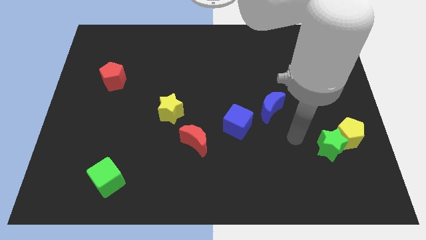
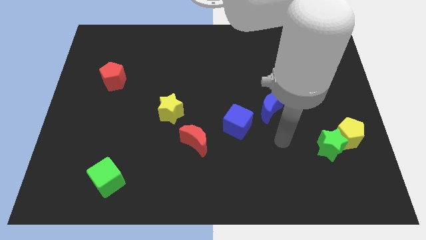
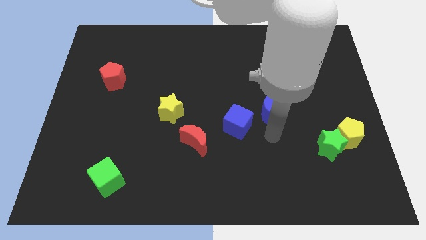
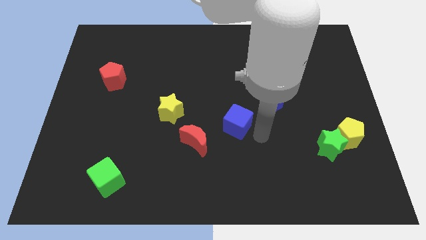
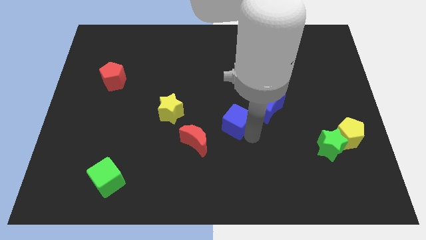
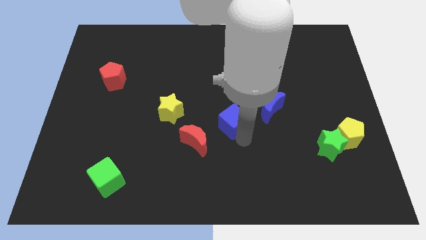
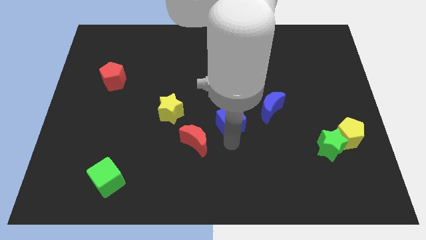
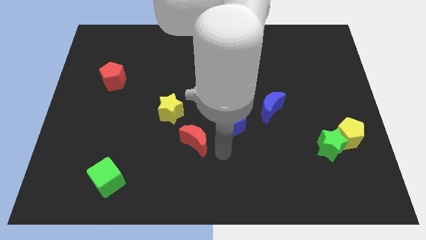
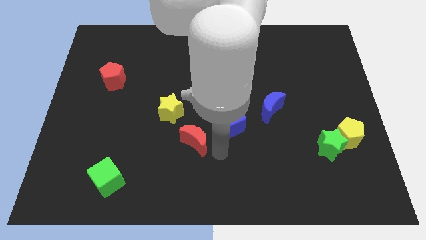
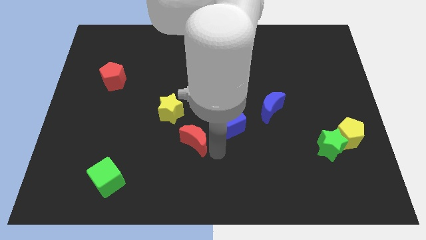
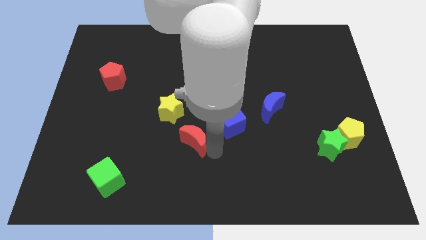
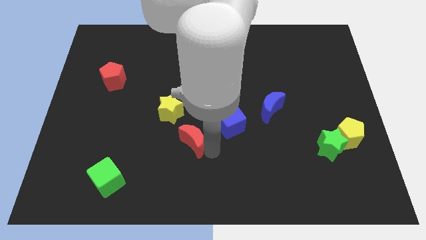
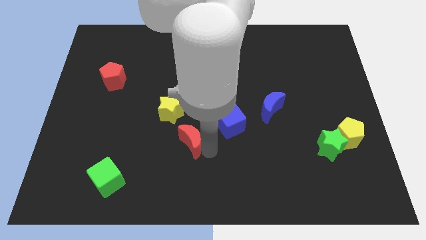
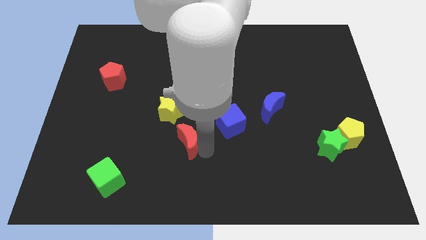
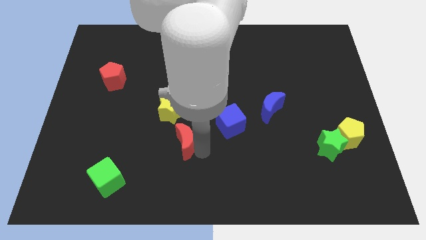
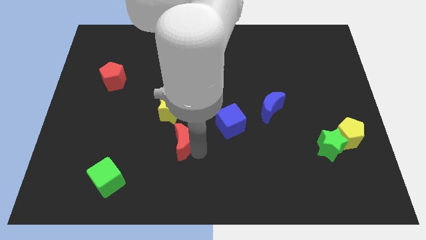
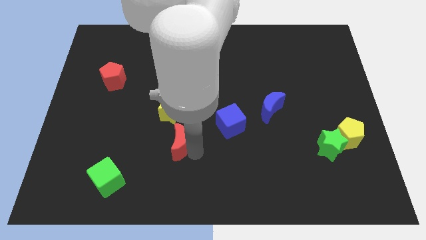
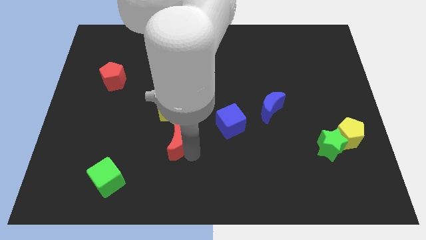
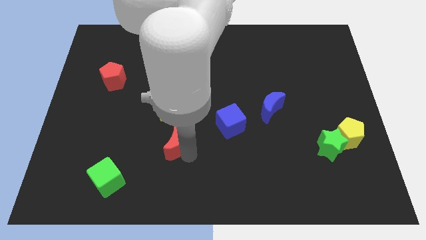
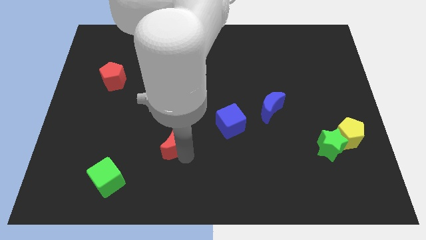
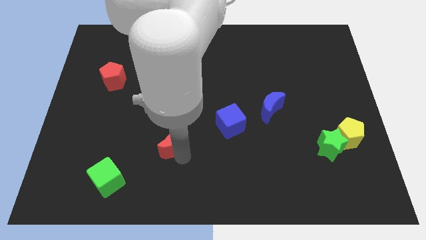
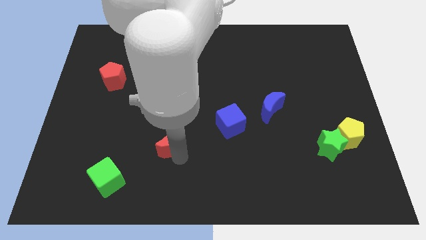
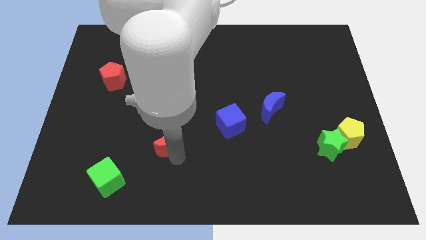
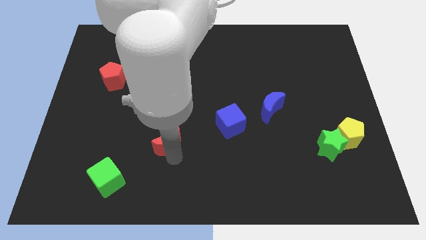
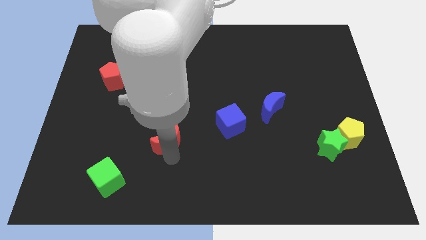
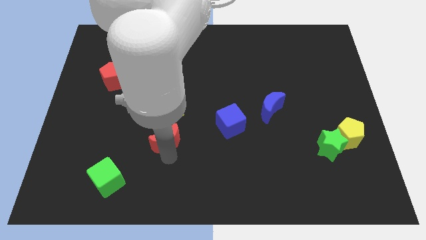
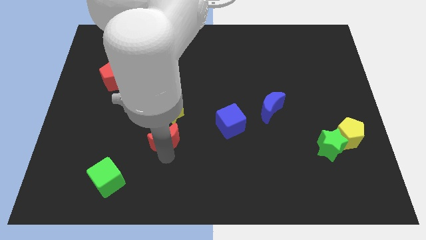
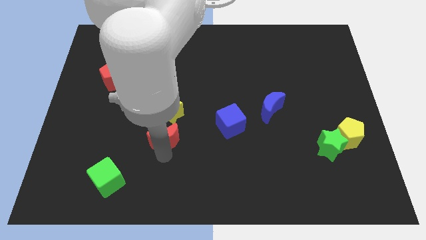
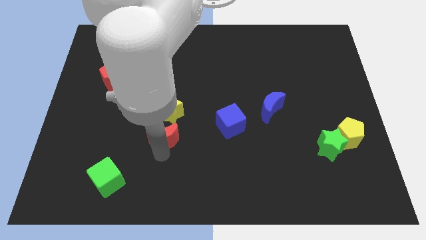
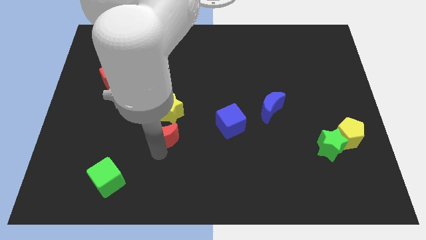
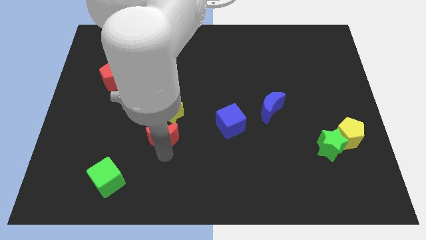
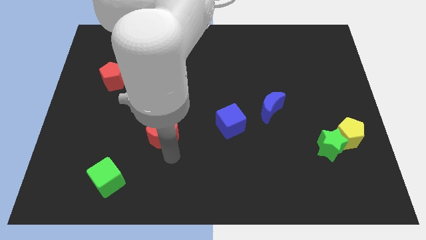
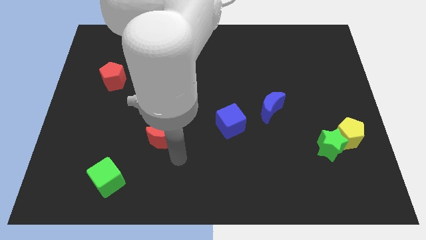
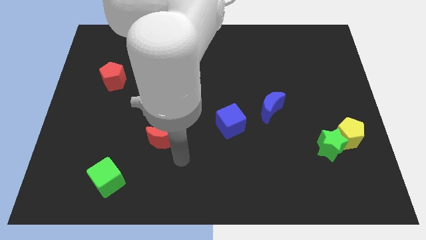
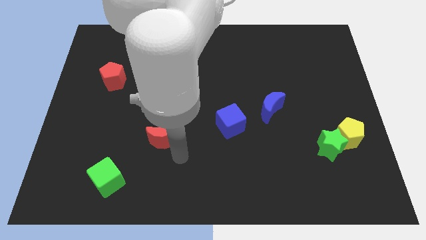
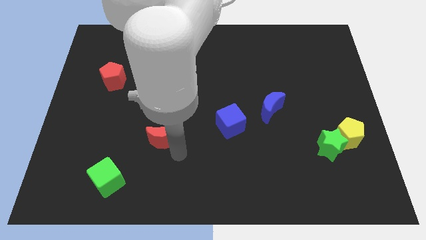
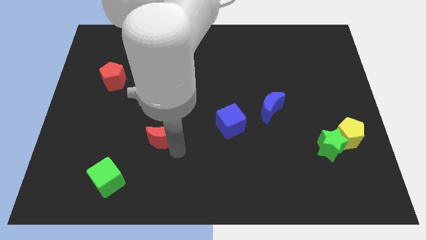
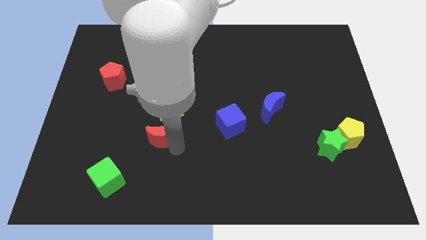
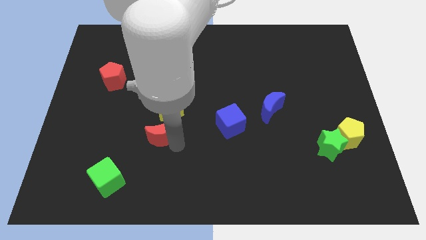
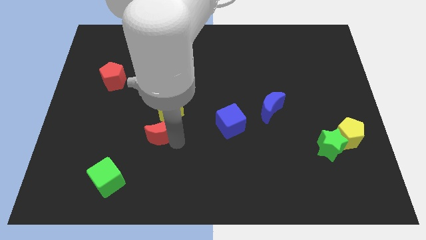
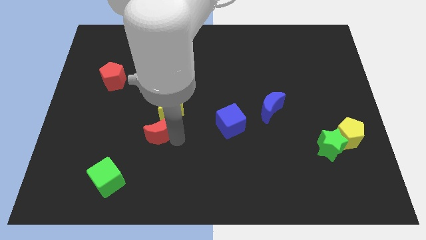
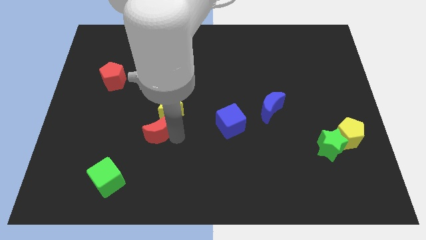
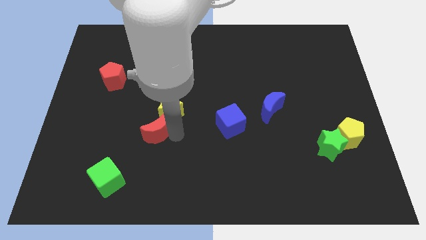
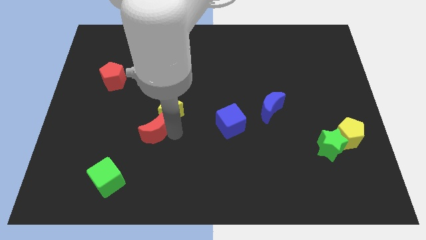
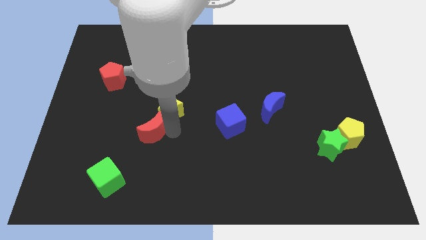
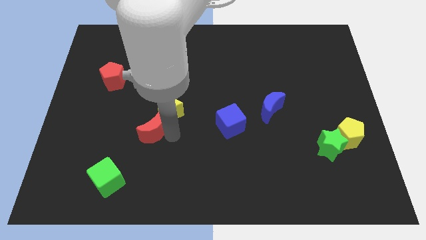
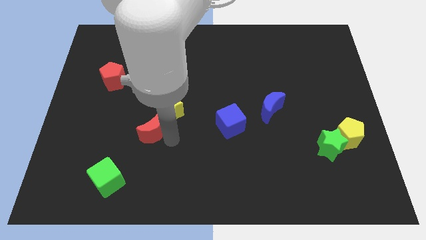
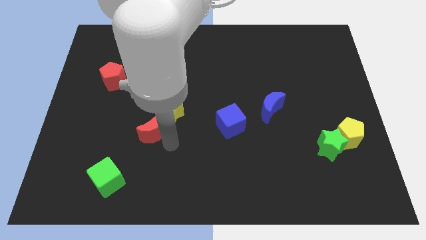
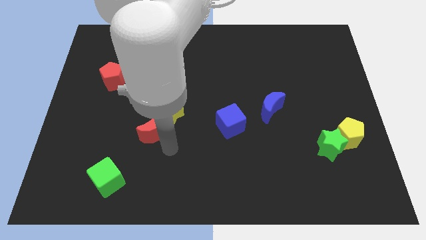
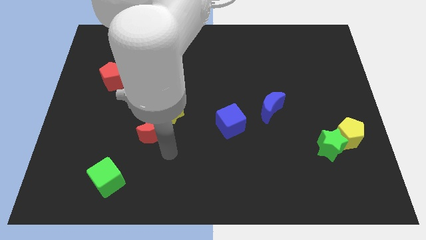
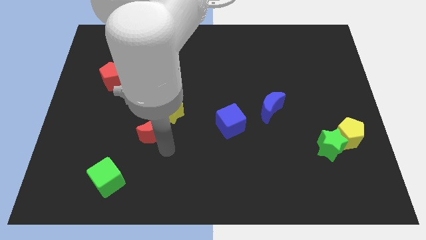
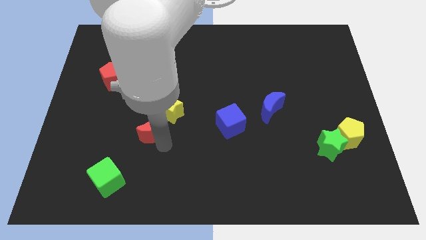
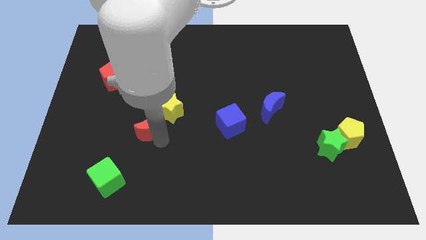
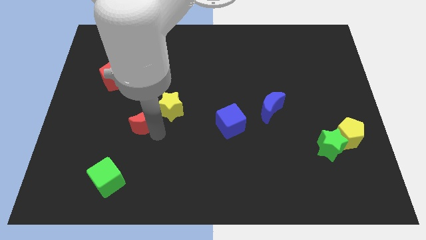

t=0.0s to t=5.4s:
move the red moon to the left of the yellow star

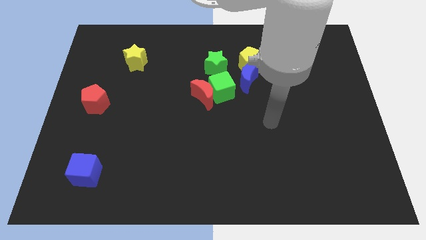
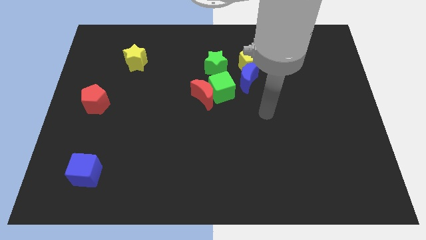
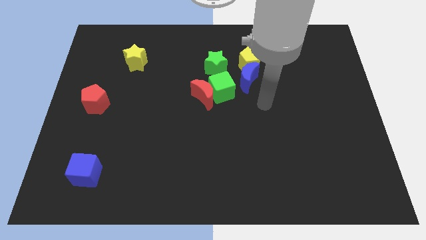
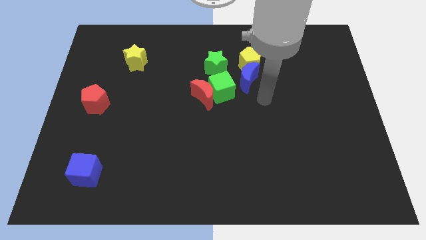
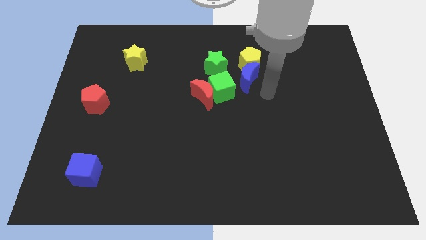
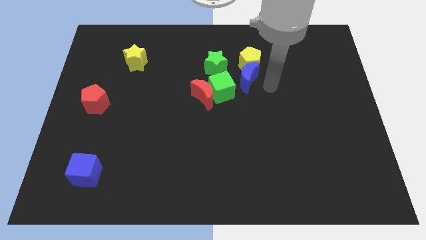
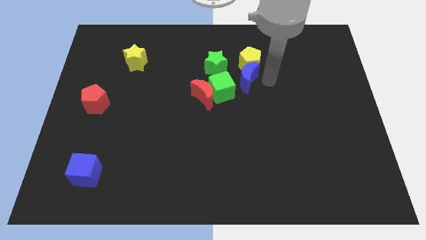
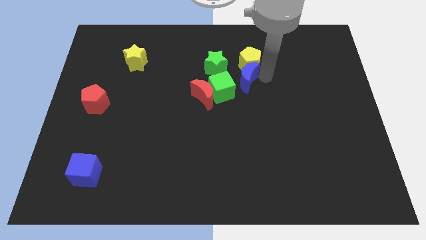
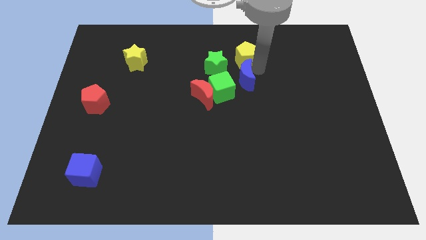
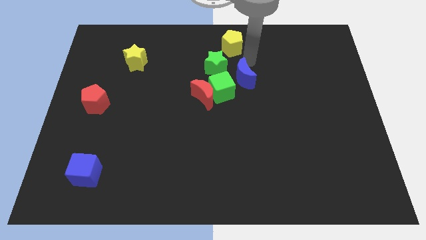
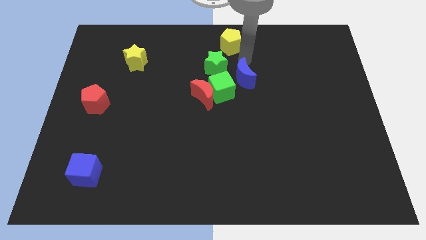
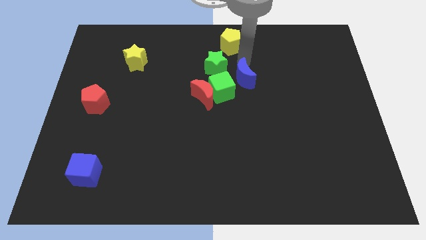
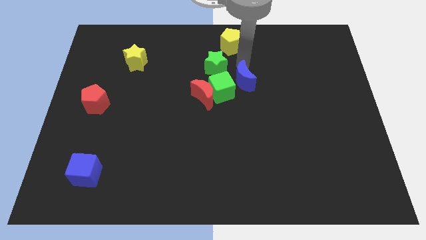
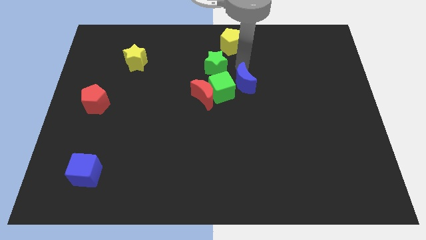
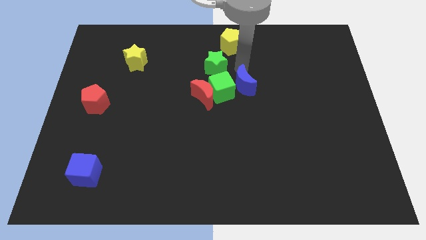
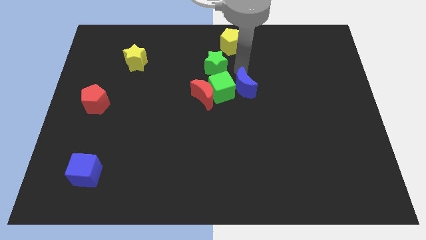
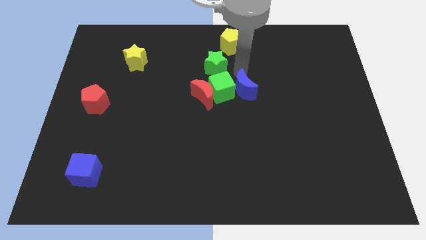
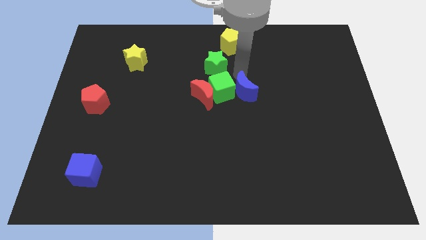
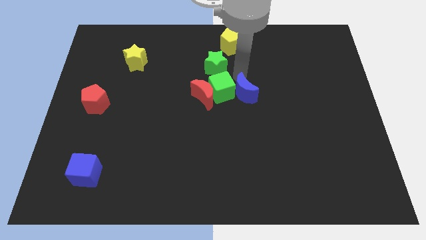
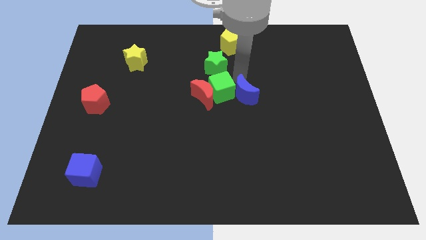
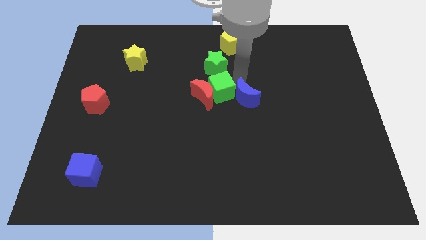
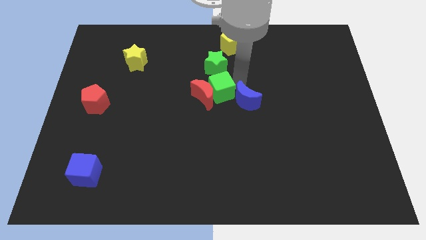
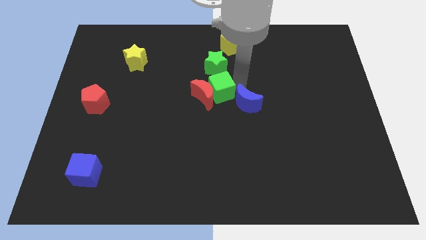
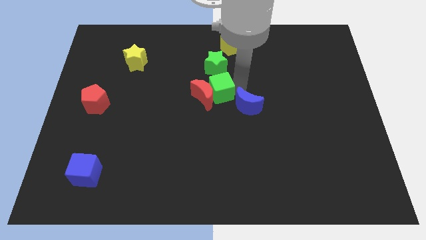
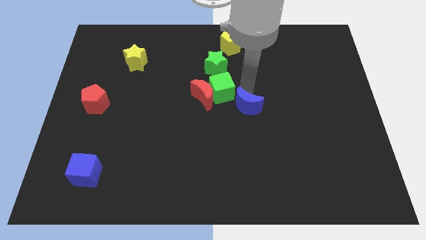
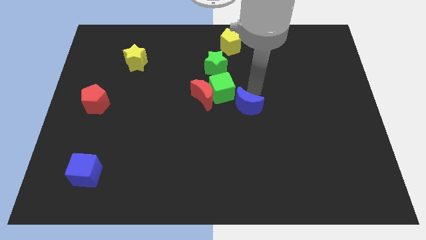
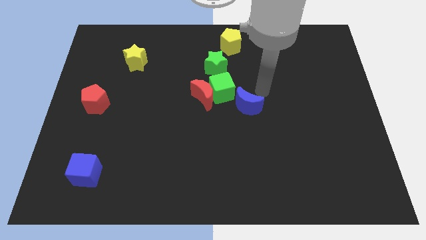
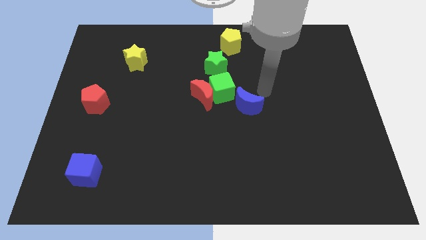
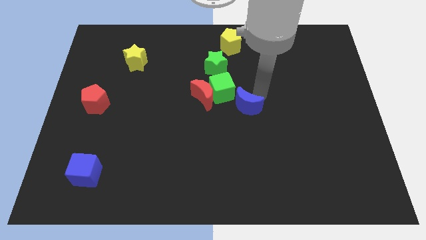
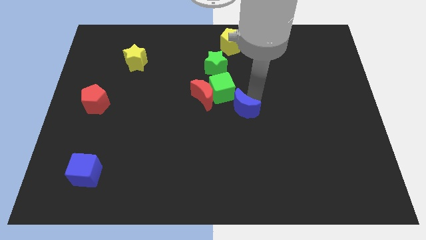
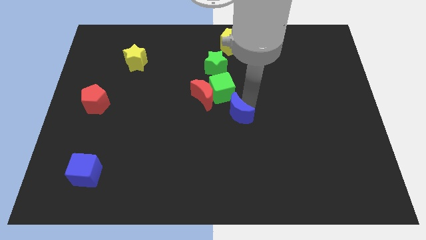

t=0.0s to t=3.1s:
move the blue moon below the green cube
